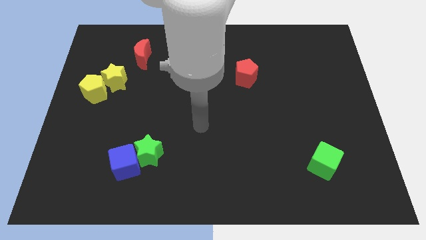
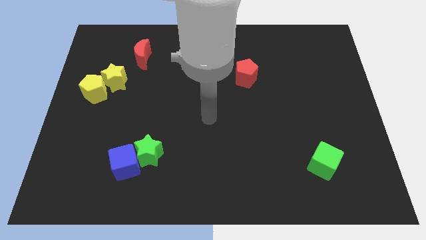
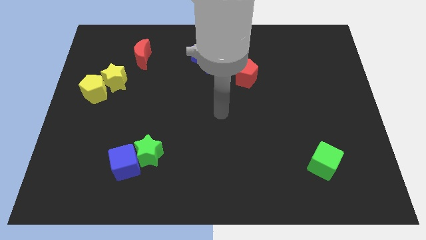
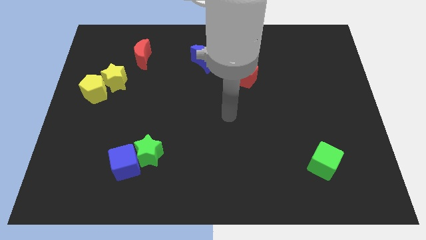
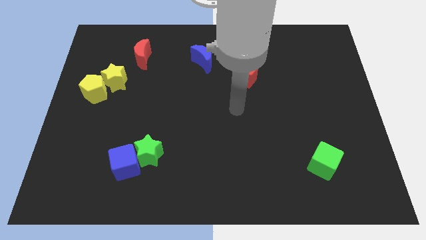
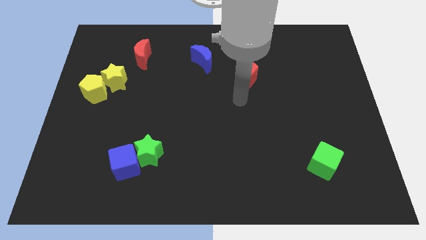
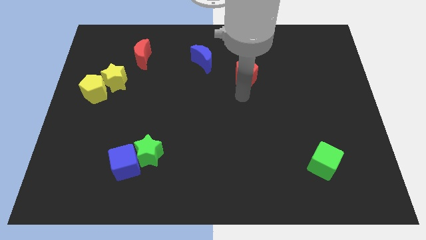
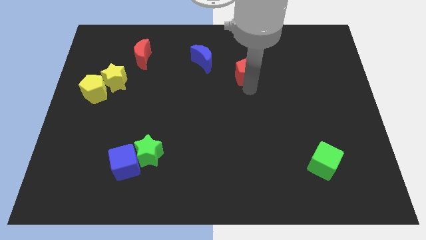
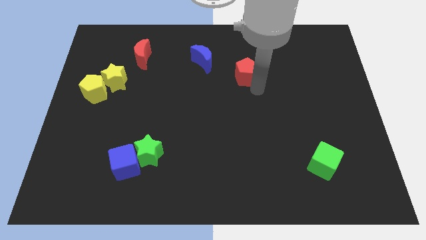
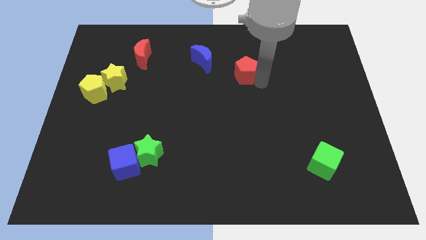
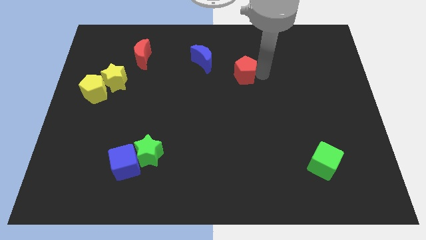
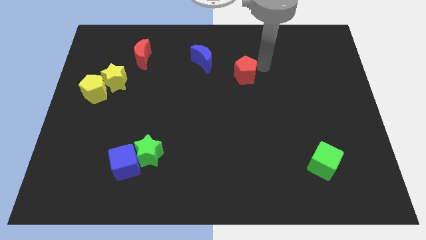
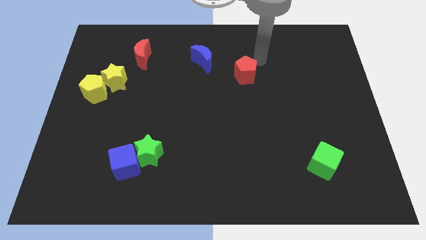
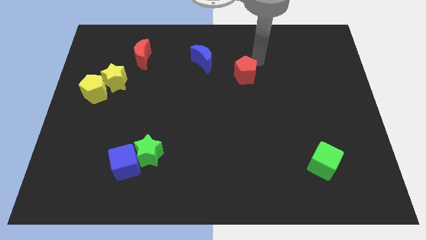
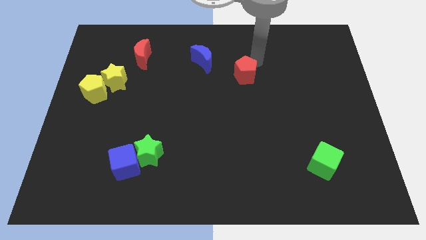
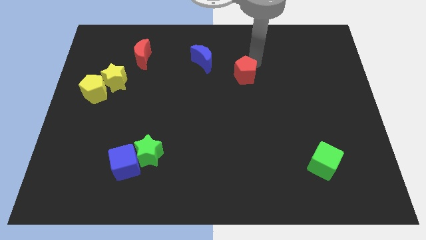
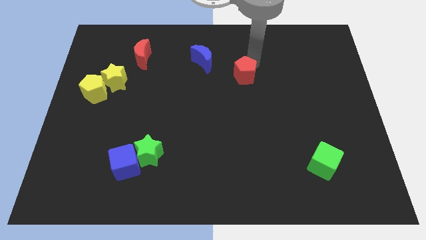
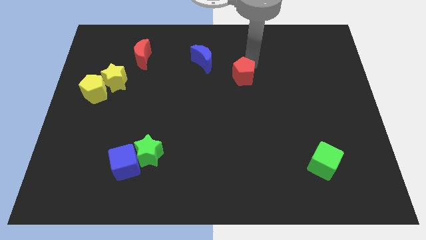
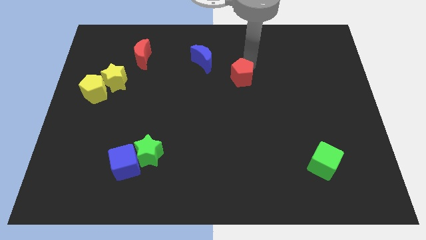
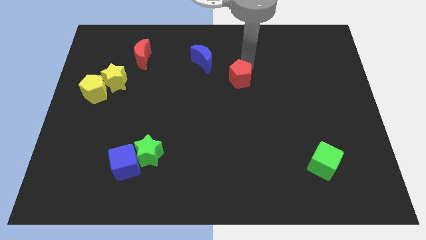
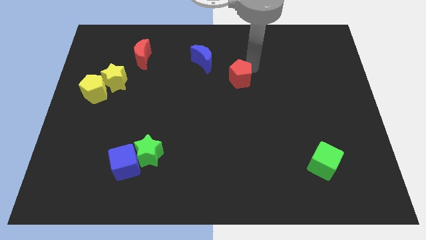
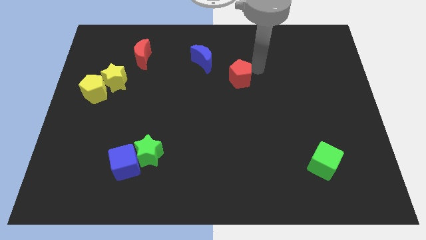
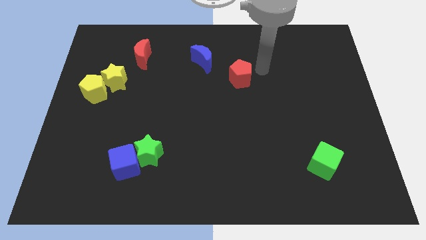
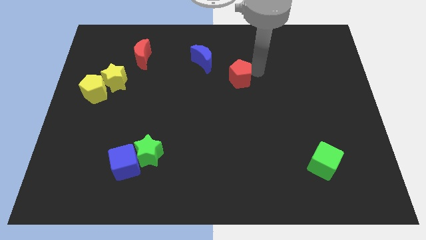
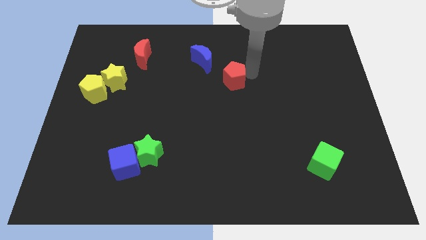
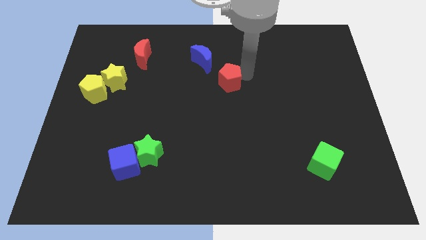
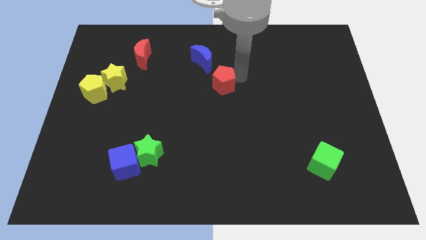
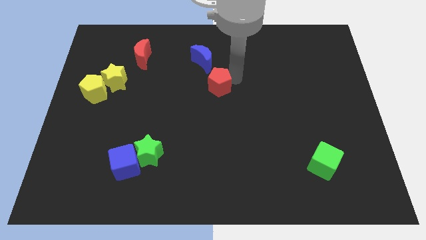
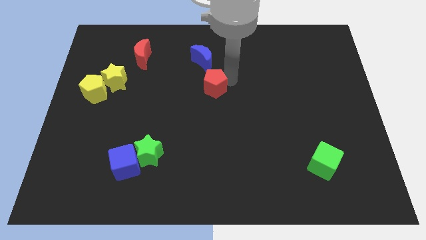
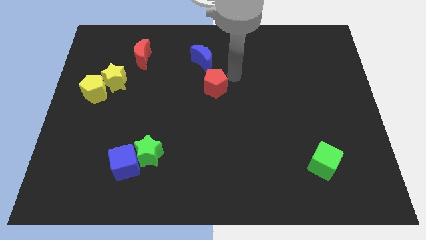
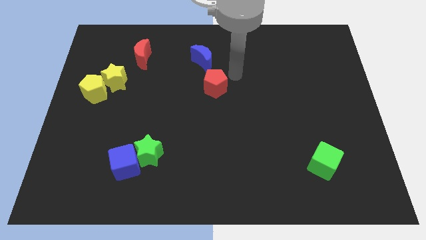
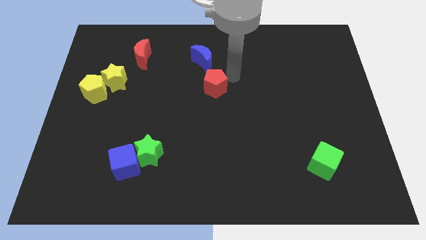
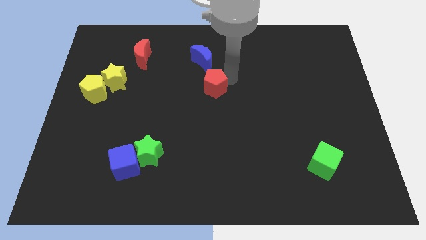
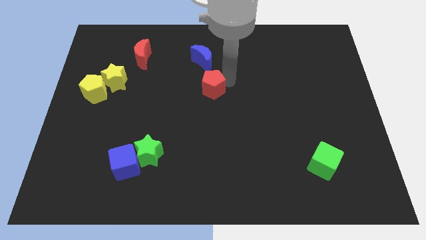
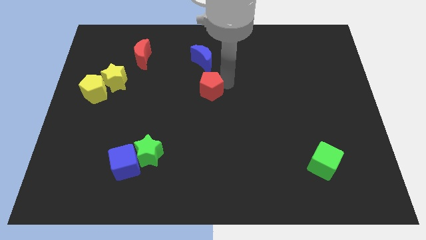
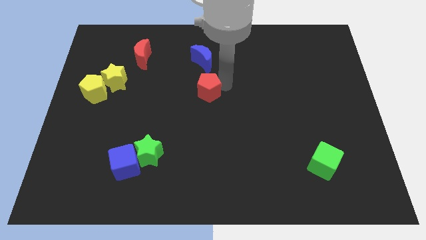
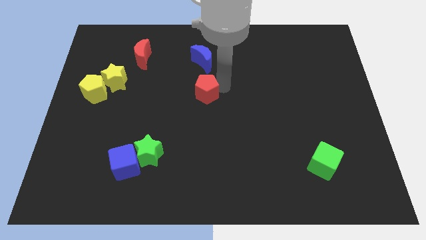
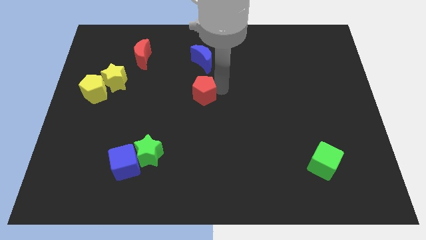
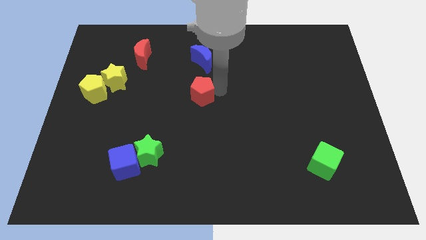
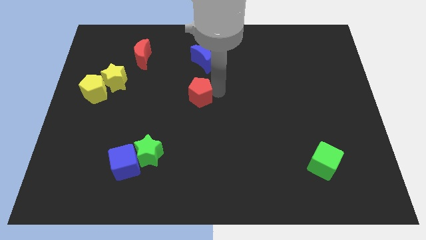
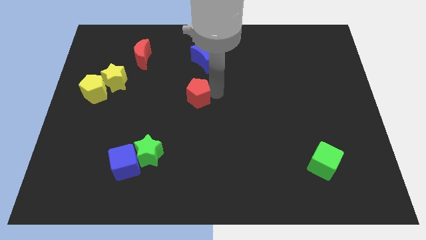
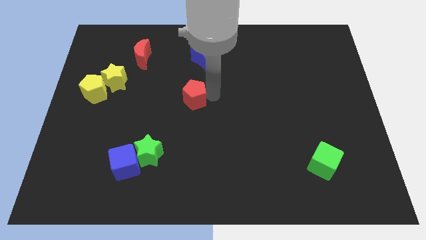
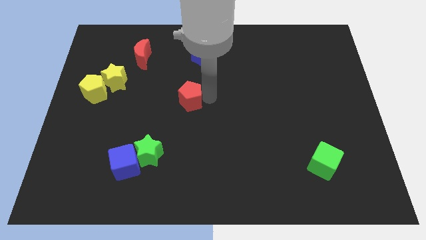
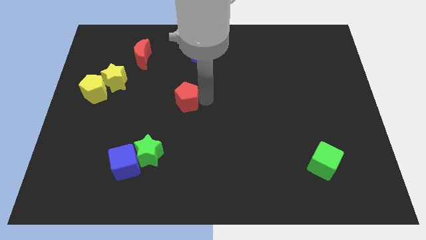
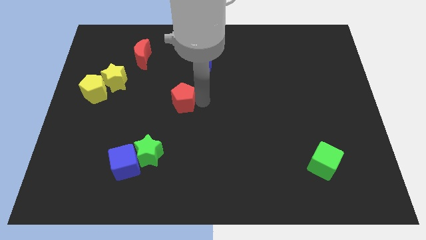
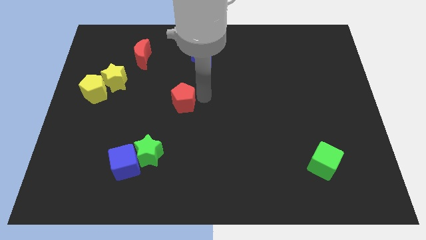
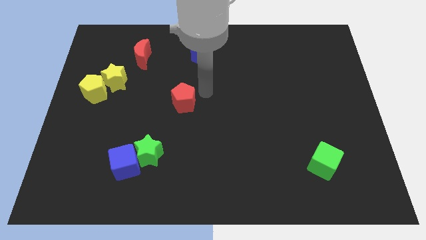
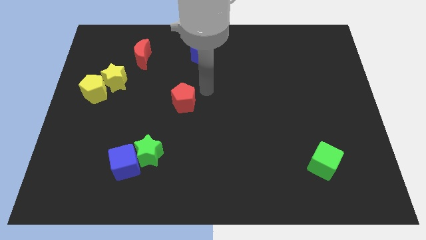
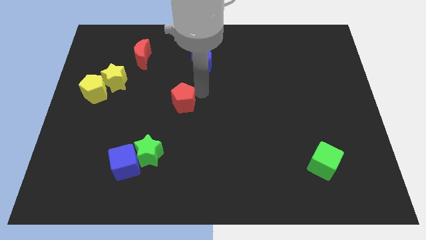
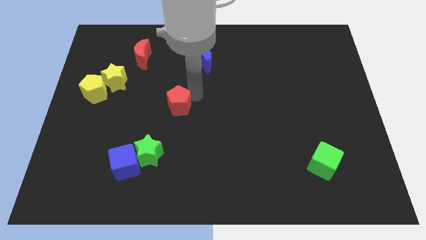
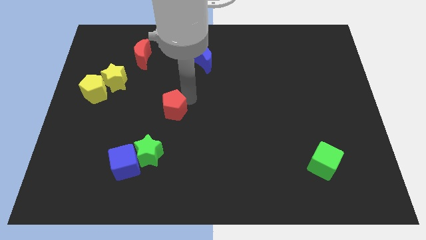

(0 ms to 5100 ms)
push the red pentagon above the green star

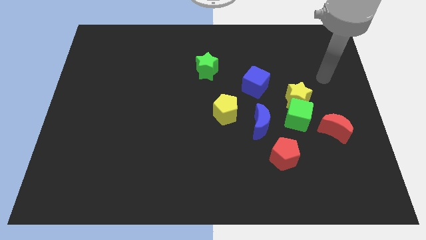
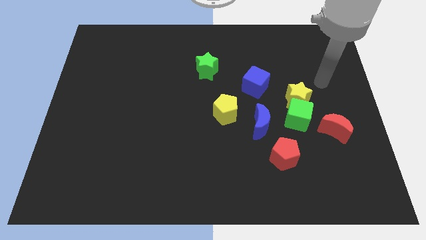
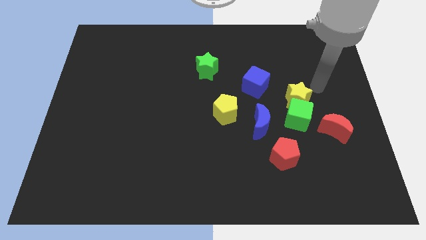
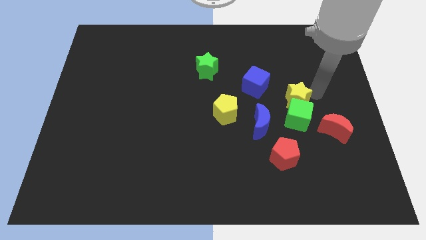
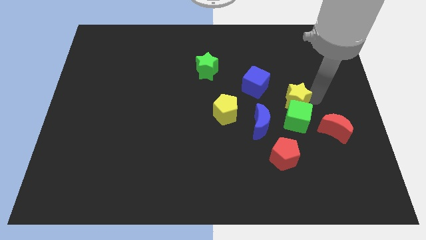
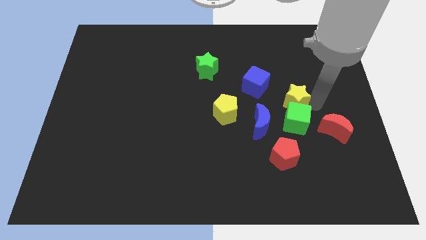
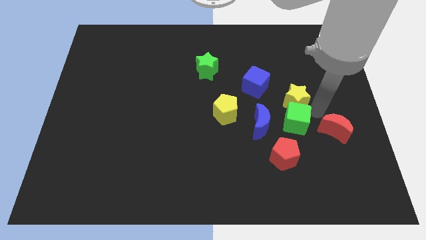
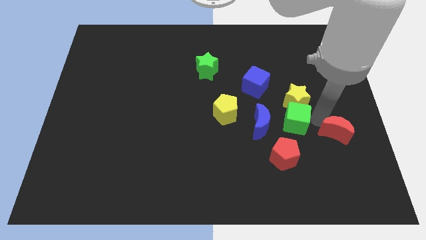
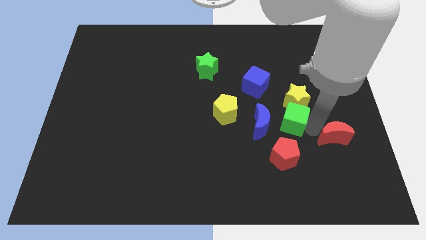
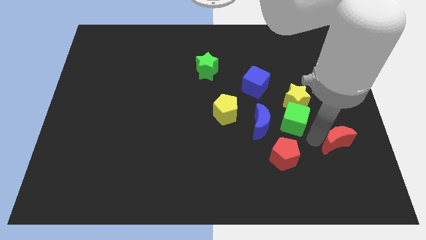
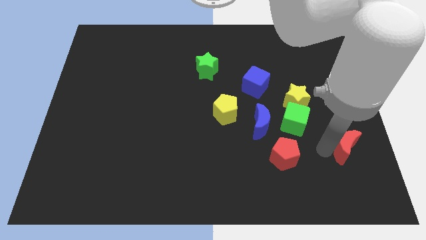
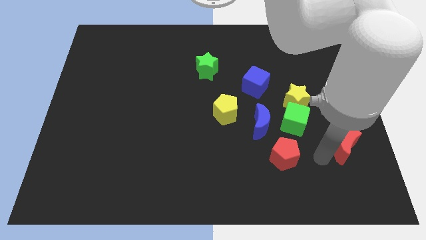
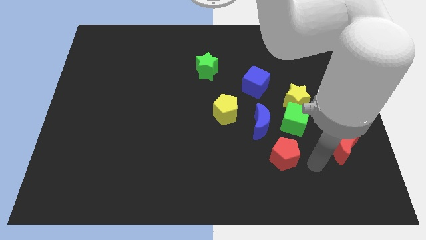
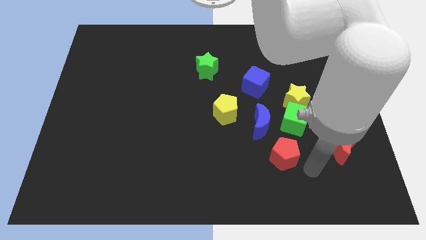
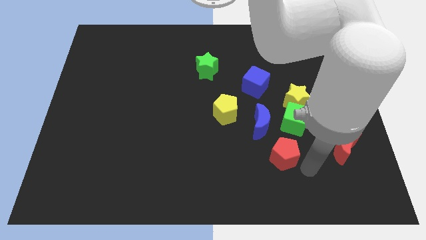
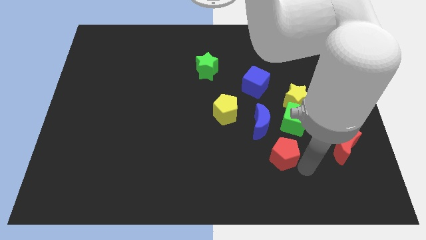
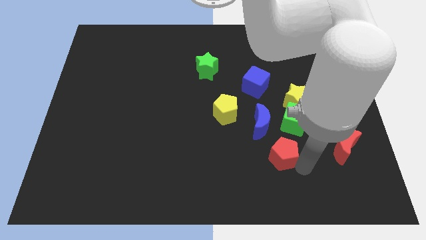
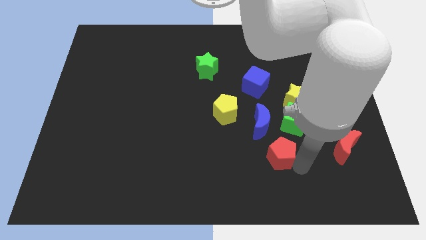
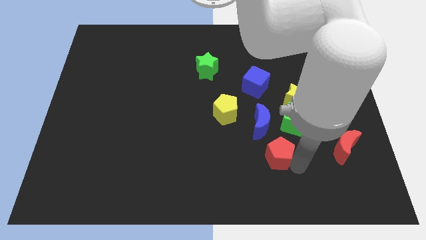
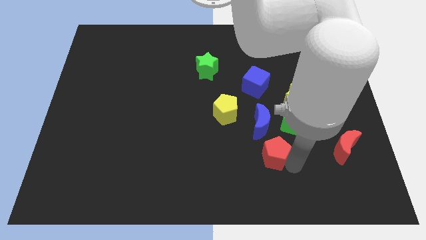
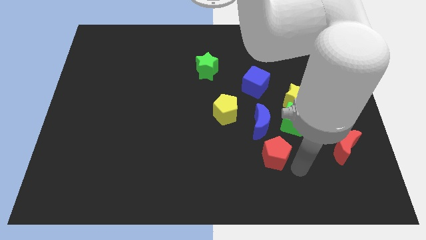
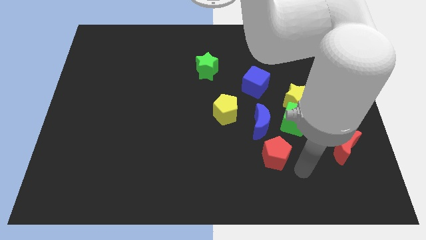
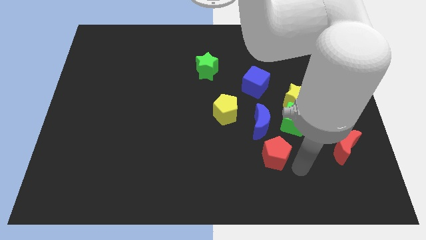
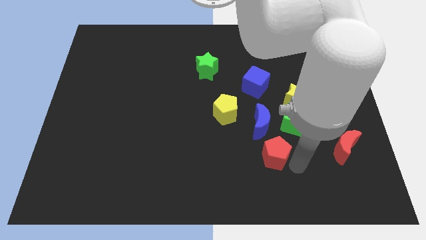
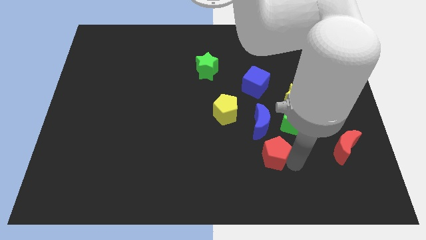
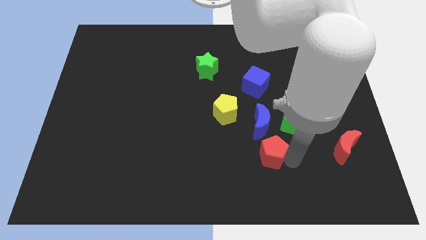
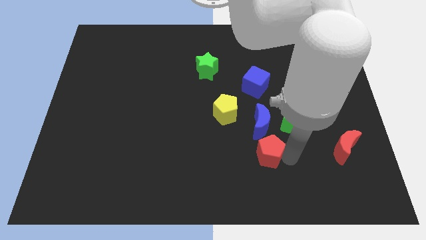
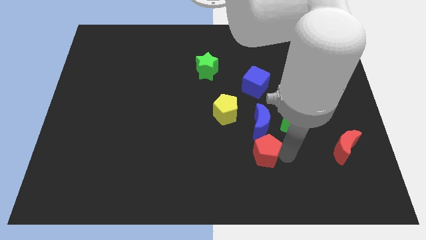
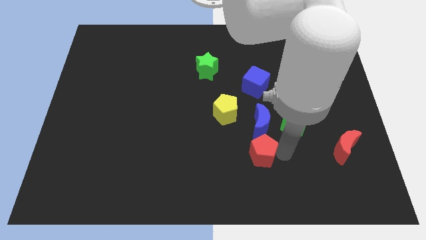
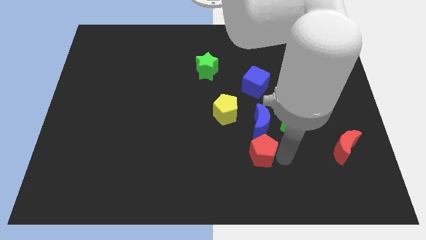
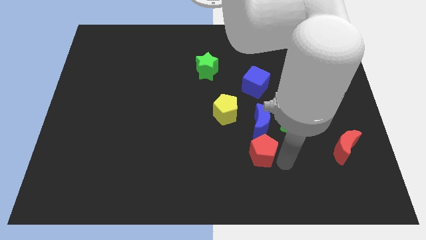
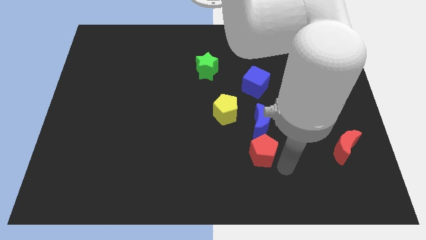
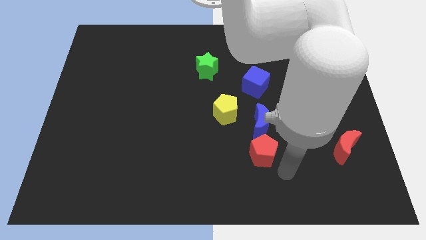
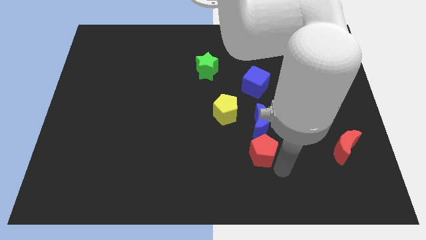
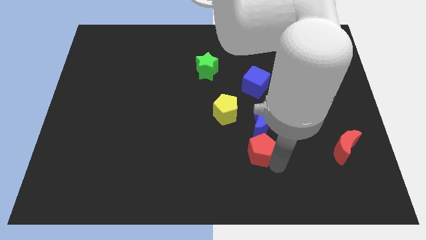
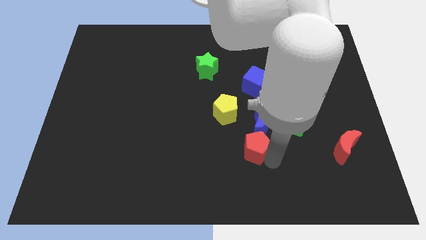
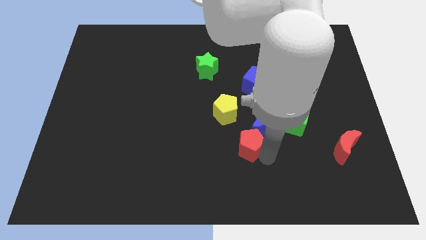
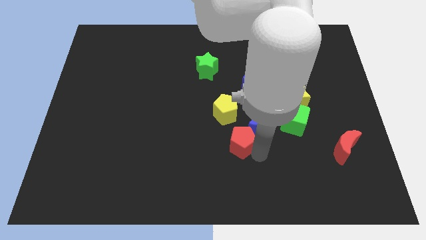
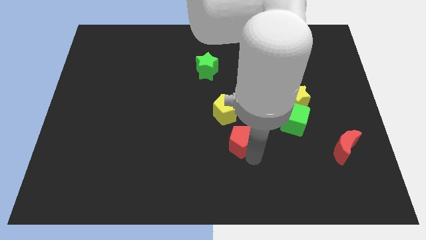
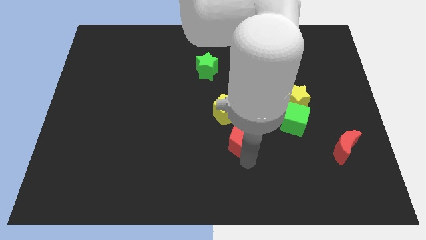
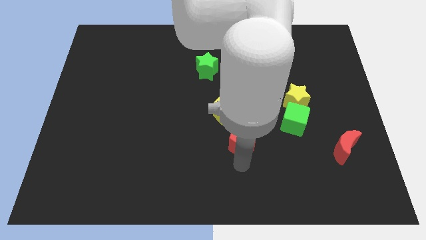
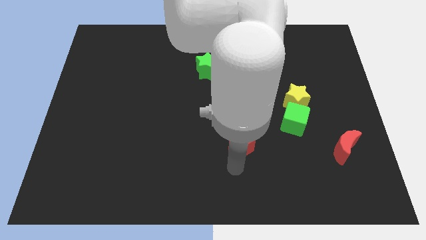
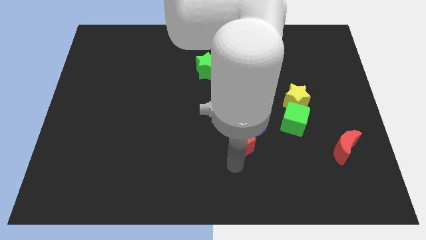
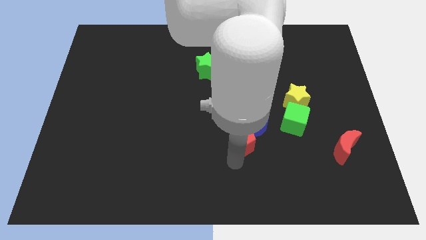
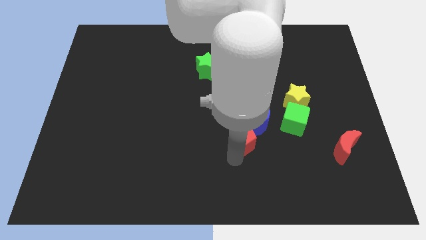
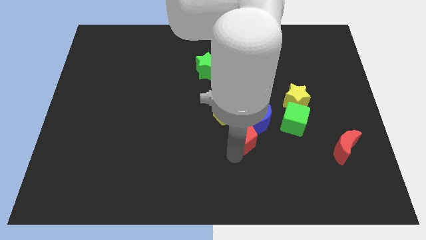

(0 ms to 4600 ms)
put the red pentagon to the left of the green cube
